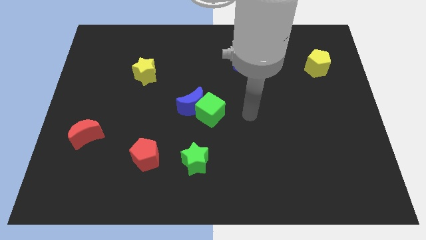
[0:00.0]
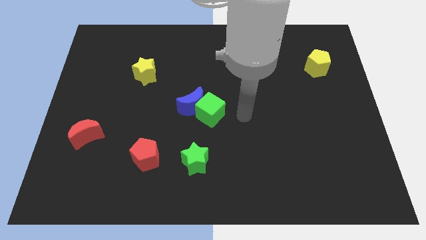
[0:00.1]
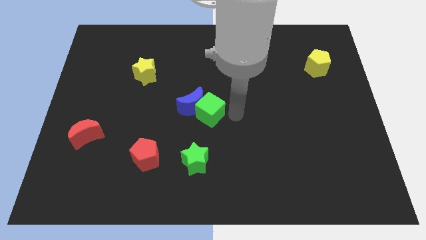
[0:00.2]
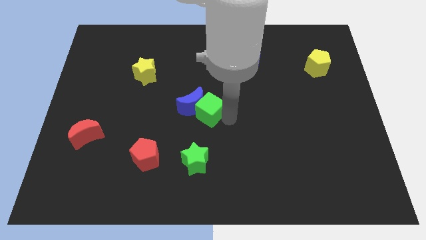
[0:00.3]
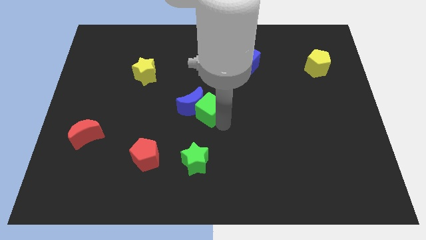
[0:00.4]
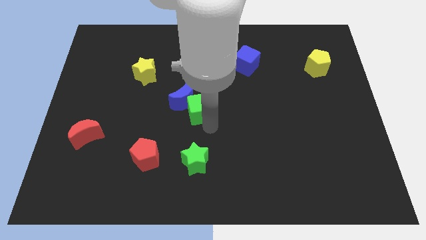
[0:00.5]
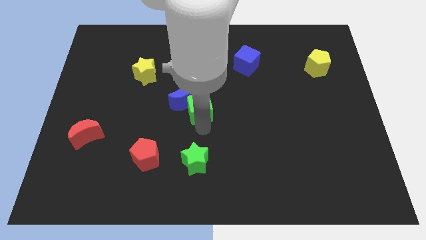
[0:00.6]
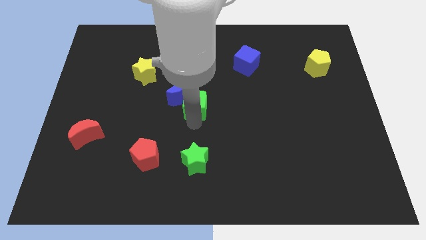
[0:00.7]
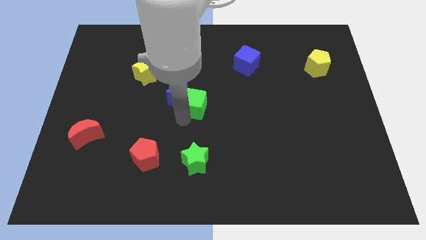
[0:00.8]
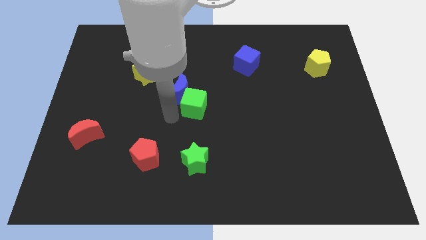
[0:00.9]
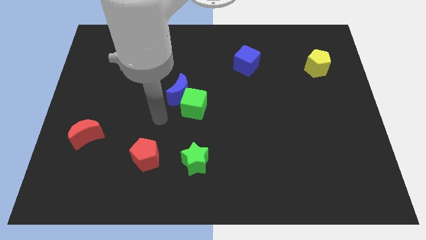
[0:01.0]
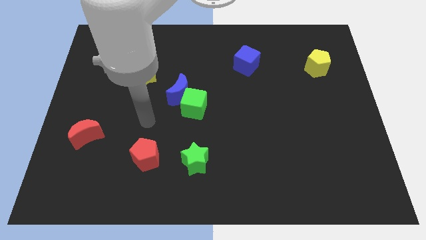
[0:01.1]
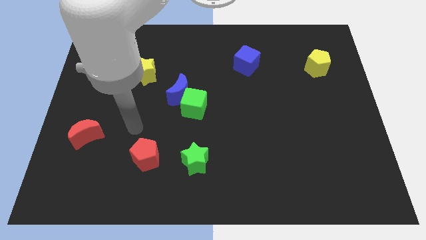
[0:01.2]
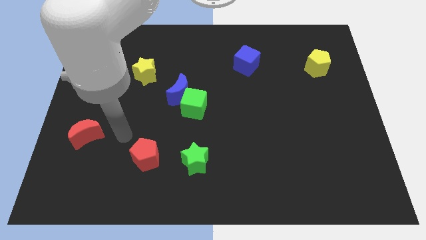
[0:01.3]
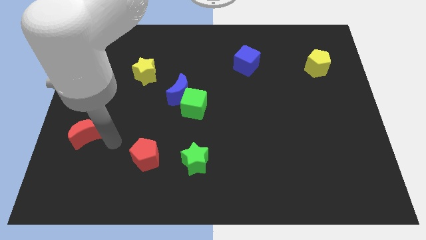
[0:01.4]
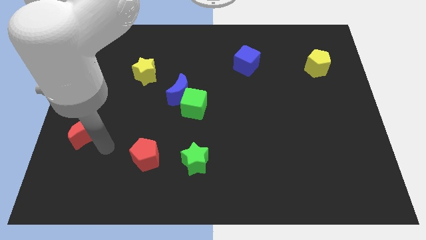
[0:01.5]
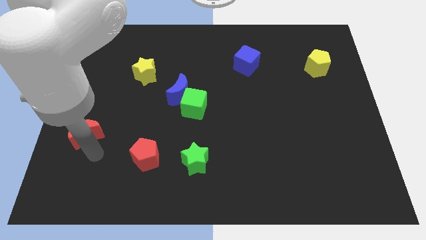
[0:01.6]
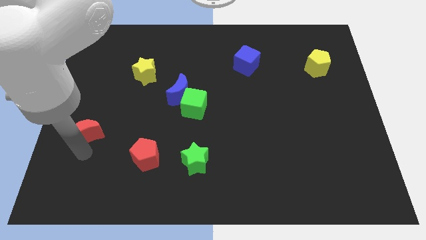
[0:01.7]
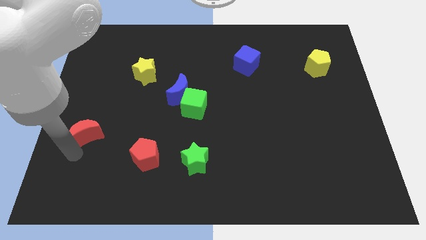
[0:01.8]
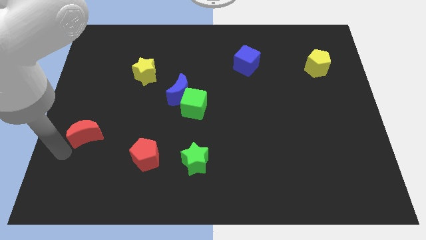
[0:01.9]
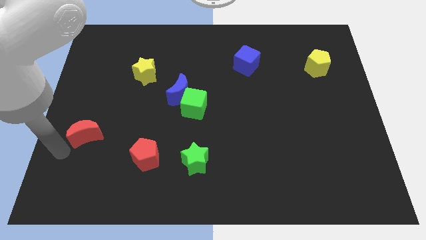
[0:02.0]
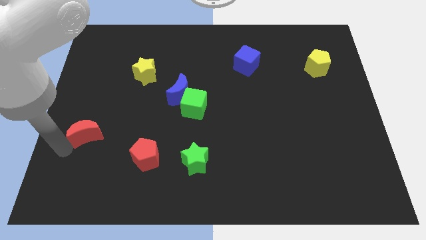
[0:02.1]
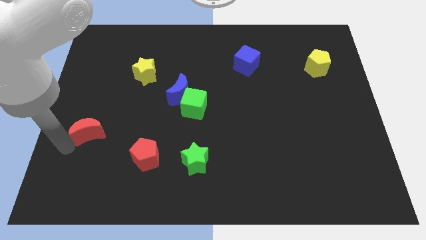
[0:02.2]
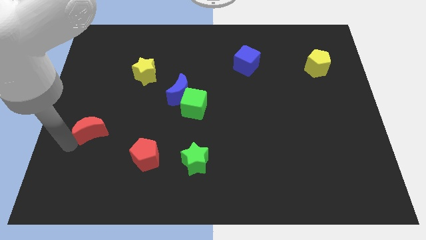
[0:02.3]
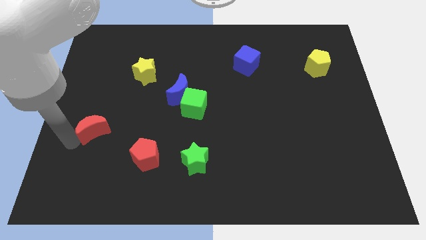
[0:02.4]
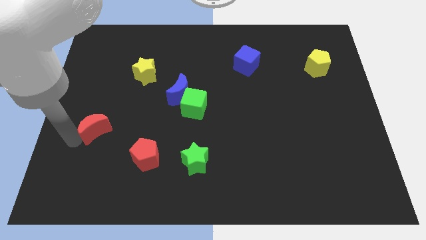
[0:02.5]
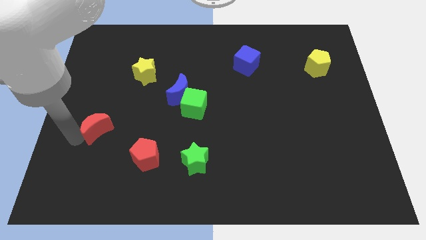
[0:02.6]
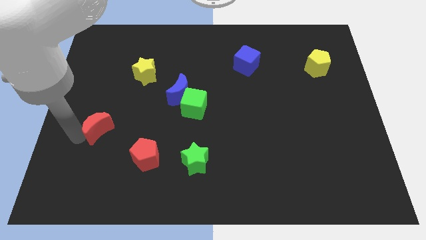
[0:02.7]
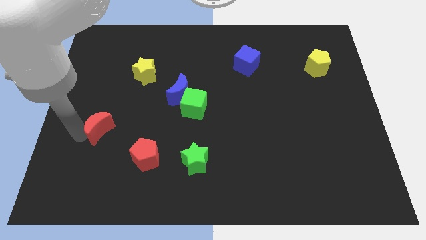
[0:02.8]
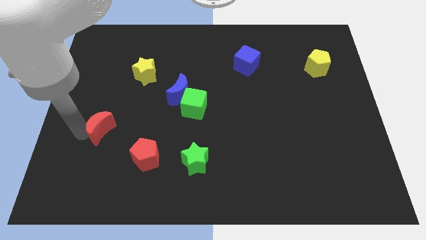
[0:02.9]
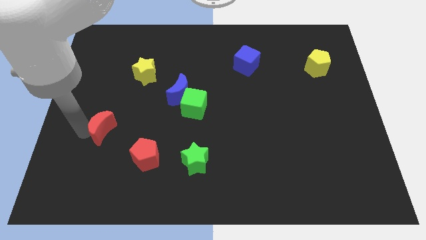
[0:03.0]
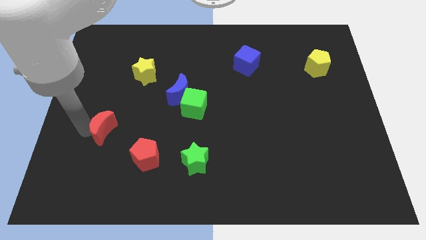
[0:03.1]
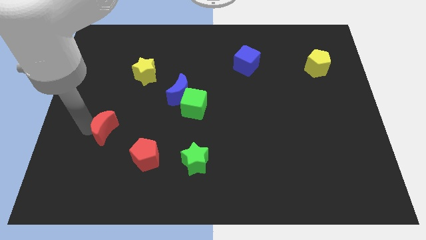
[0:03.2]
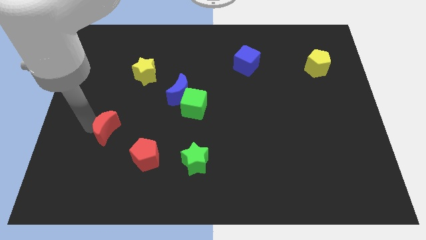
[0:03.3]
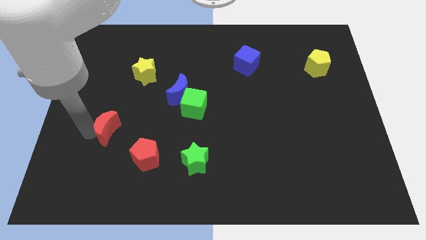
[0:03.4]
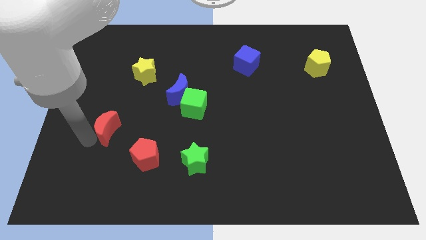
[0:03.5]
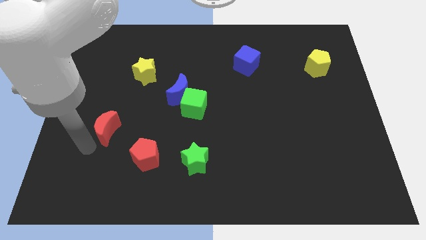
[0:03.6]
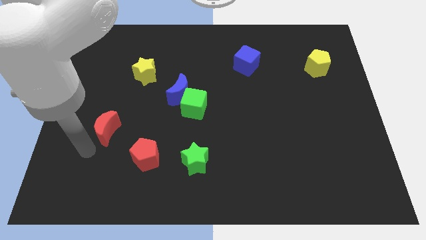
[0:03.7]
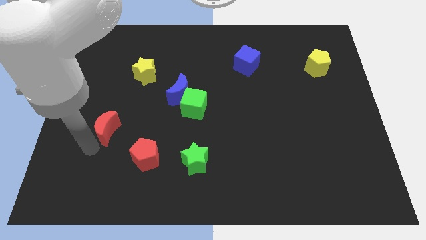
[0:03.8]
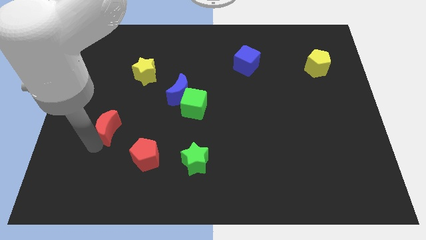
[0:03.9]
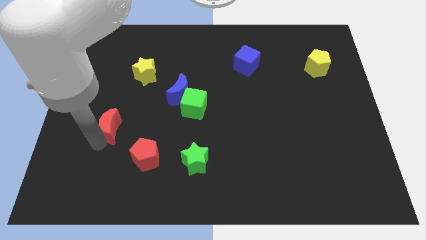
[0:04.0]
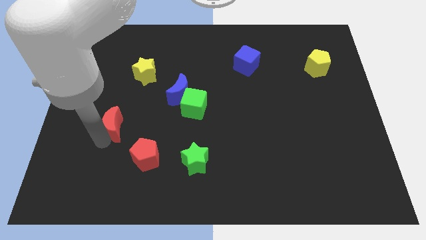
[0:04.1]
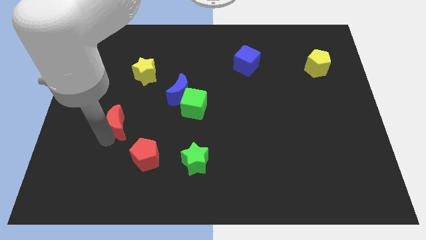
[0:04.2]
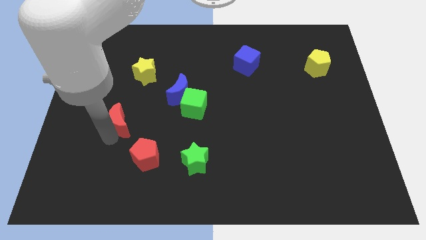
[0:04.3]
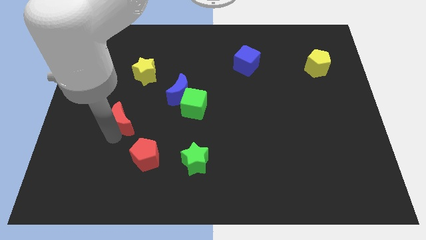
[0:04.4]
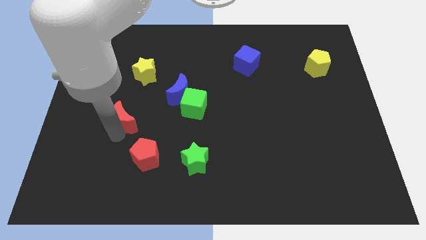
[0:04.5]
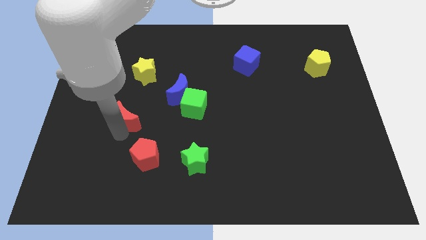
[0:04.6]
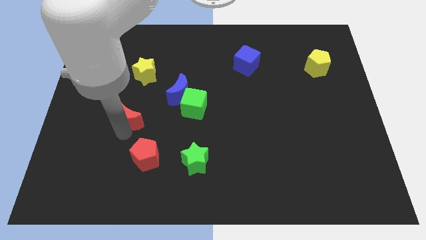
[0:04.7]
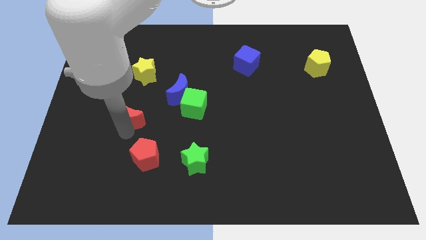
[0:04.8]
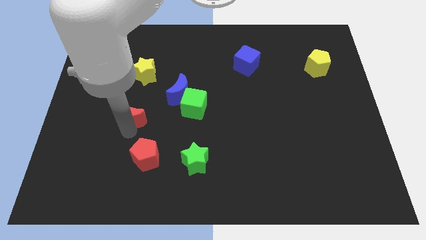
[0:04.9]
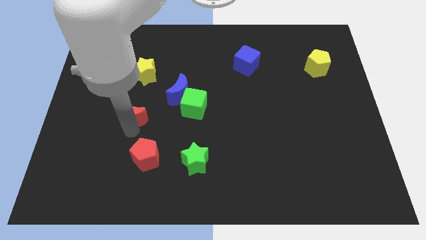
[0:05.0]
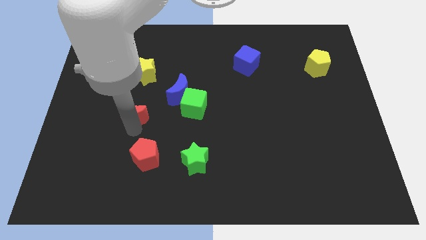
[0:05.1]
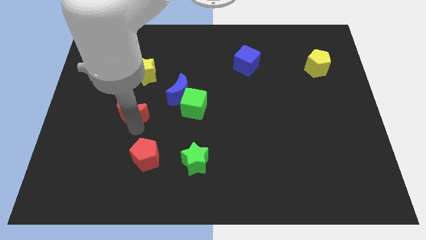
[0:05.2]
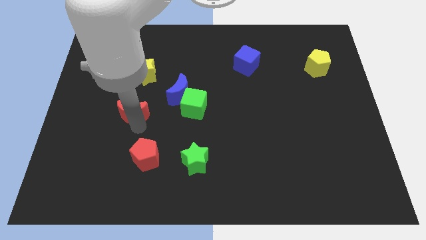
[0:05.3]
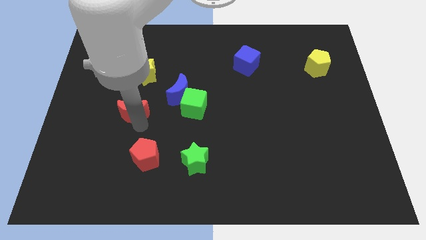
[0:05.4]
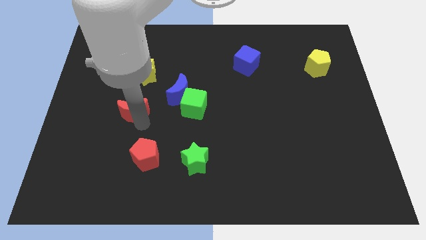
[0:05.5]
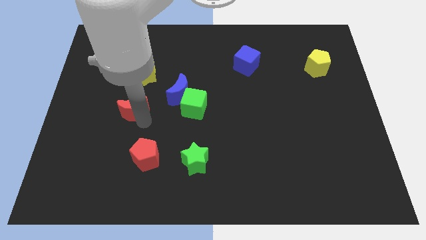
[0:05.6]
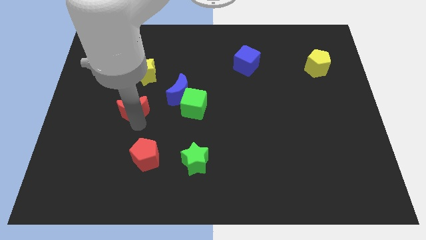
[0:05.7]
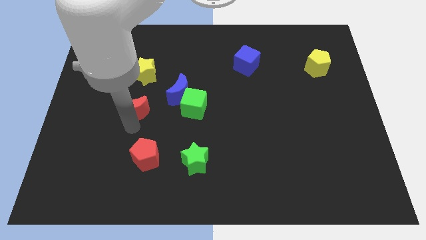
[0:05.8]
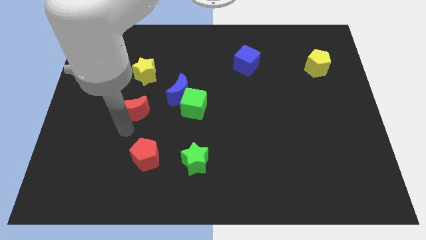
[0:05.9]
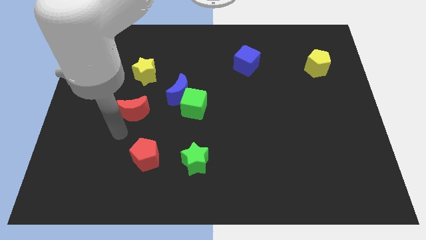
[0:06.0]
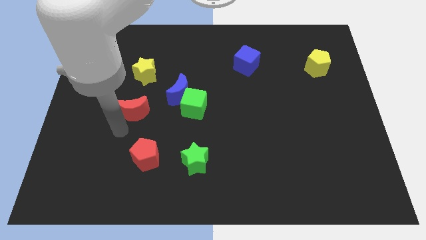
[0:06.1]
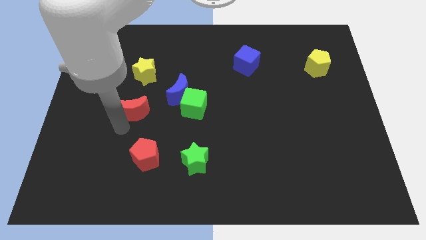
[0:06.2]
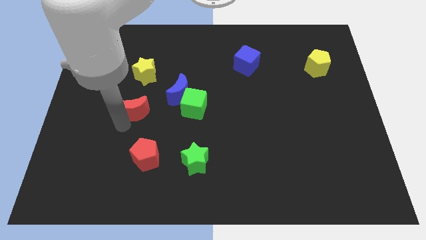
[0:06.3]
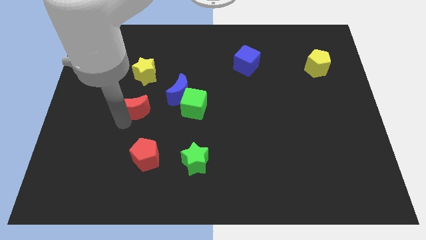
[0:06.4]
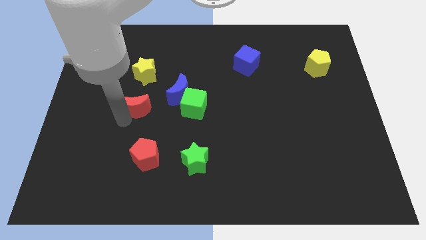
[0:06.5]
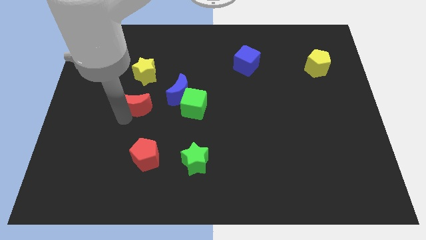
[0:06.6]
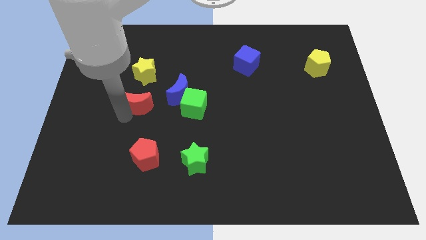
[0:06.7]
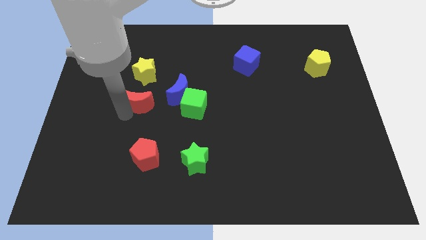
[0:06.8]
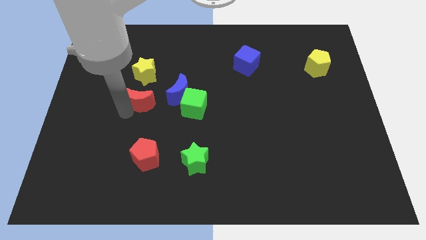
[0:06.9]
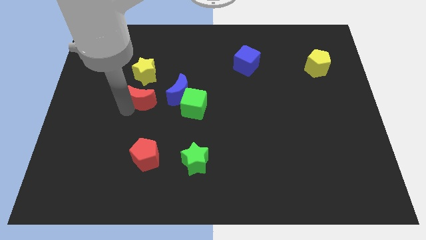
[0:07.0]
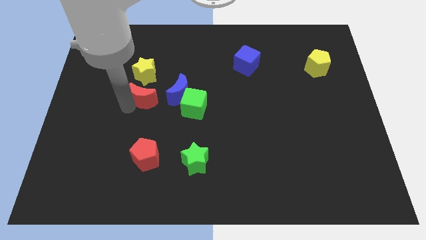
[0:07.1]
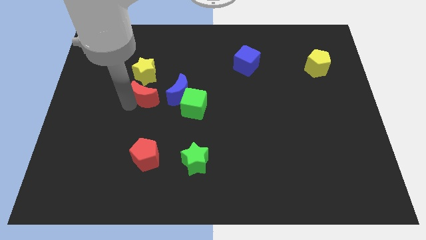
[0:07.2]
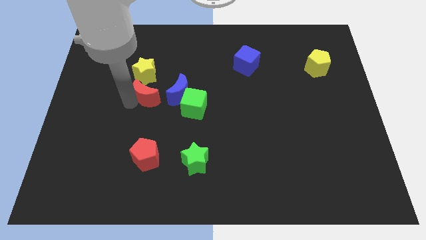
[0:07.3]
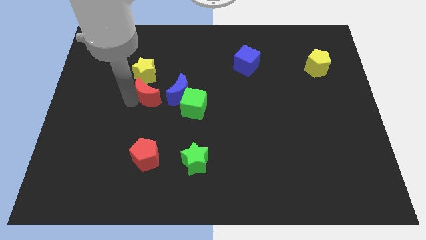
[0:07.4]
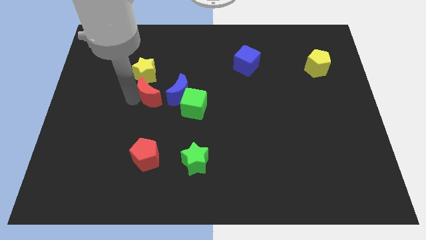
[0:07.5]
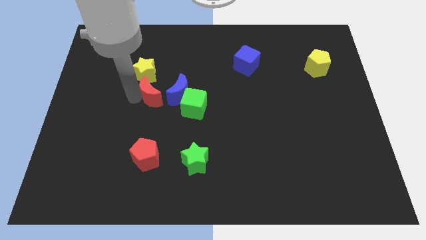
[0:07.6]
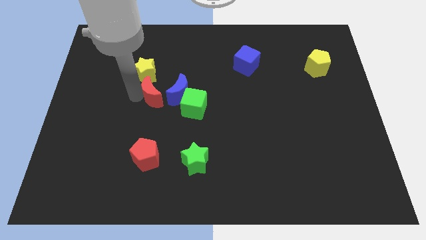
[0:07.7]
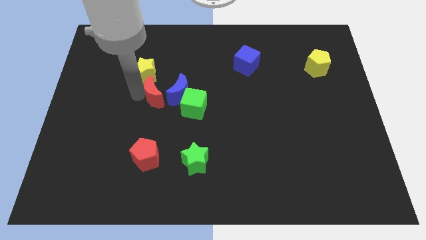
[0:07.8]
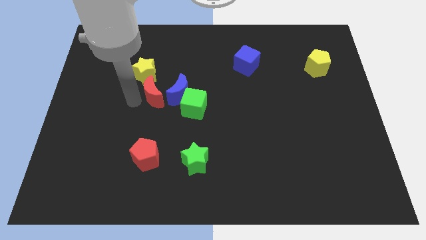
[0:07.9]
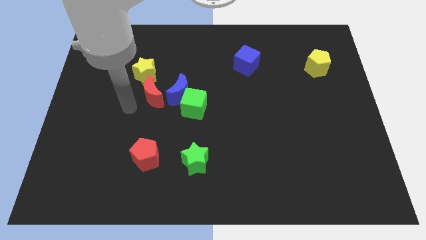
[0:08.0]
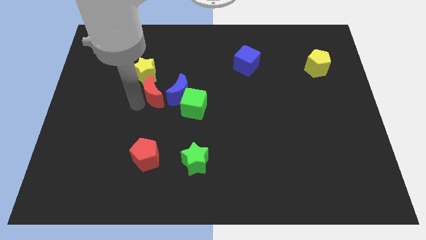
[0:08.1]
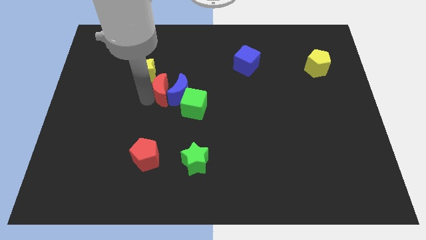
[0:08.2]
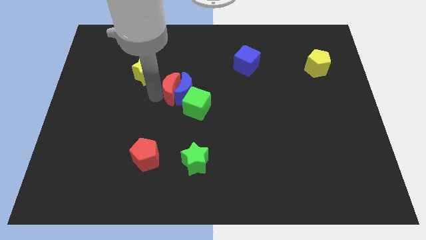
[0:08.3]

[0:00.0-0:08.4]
move the red moon diagonally upwards and right
